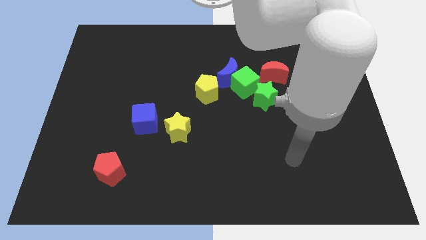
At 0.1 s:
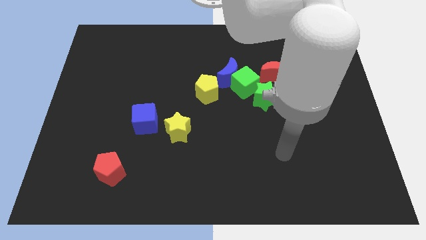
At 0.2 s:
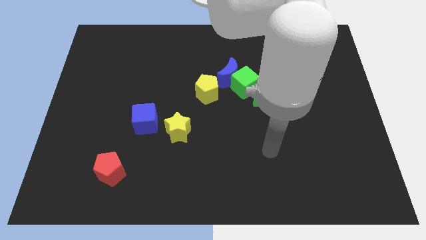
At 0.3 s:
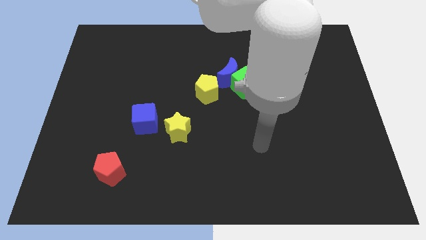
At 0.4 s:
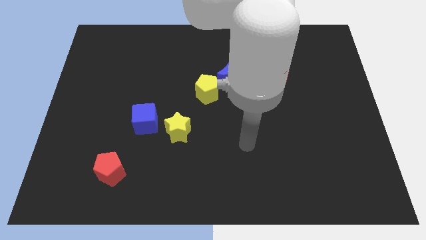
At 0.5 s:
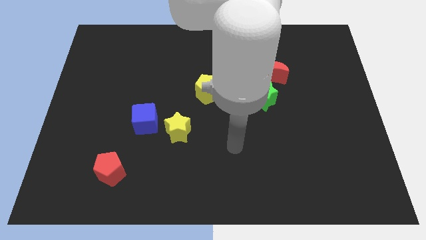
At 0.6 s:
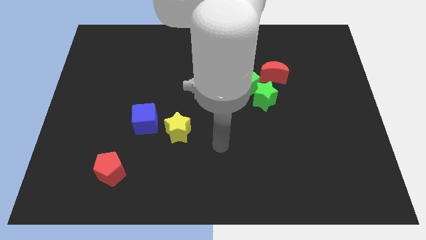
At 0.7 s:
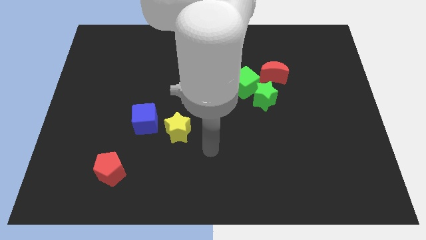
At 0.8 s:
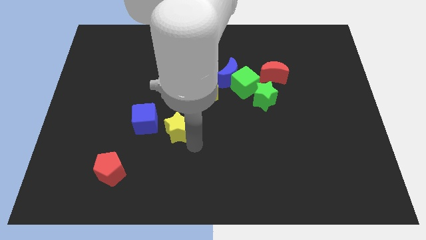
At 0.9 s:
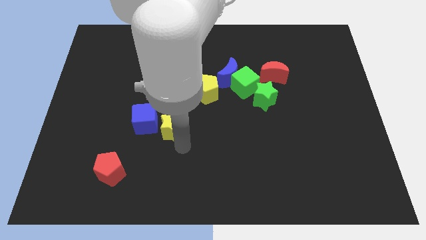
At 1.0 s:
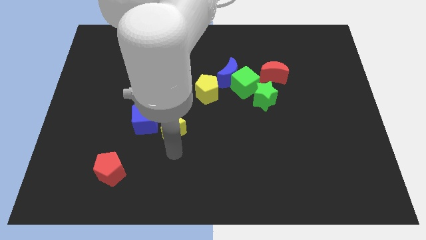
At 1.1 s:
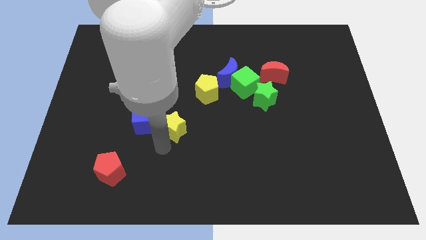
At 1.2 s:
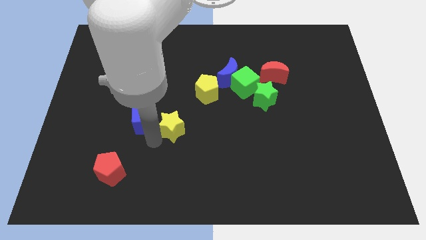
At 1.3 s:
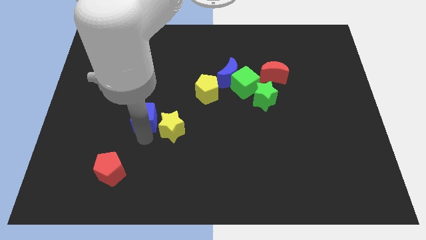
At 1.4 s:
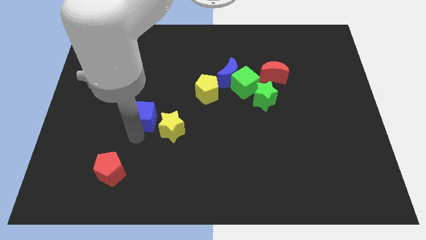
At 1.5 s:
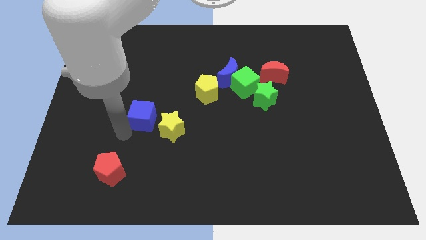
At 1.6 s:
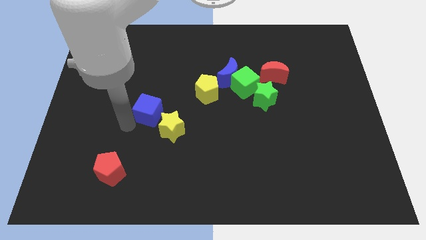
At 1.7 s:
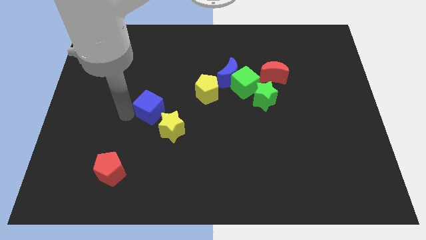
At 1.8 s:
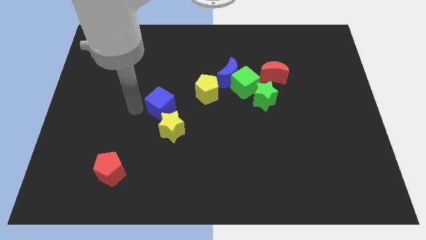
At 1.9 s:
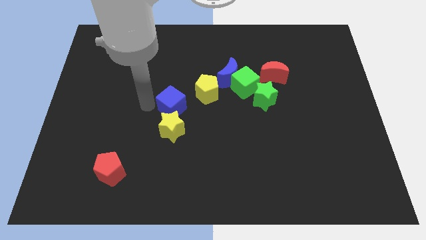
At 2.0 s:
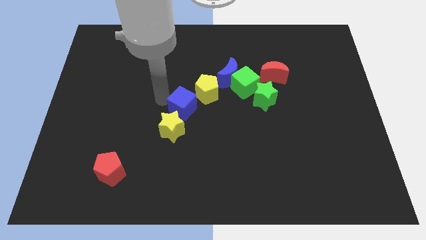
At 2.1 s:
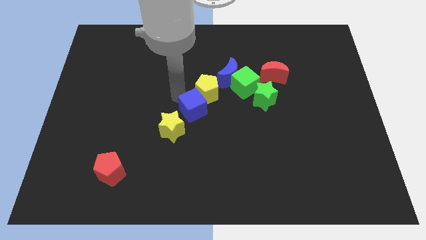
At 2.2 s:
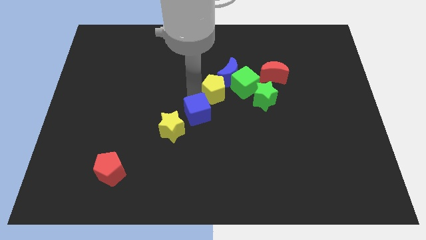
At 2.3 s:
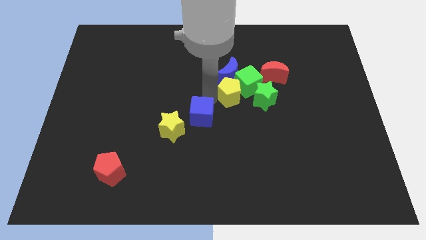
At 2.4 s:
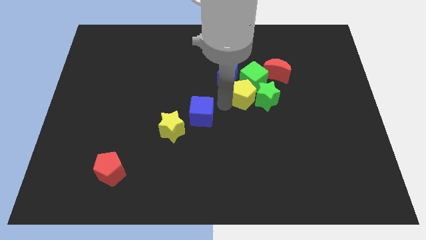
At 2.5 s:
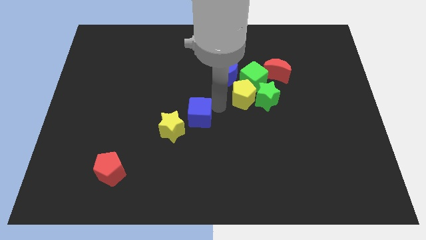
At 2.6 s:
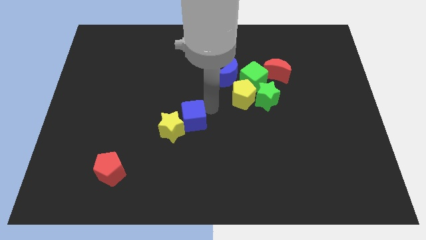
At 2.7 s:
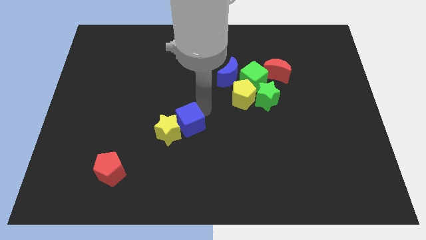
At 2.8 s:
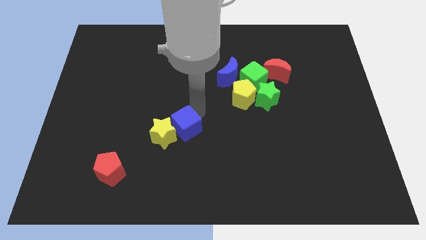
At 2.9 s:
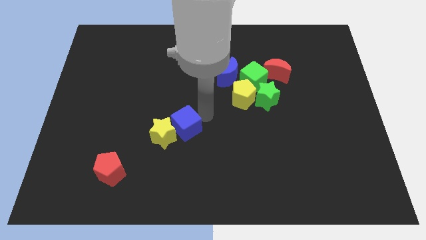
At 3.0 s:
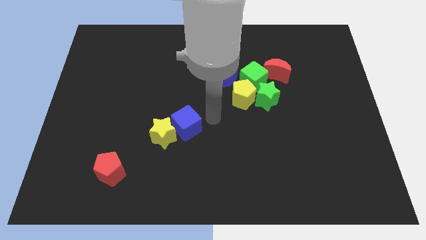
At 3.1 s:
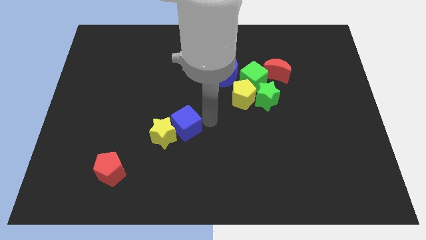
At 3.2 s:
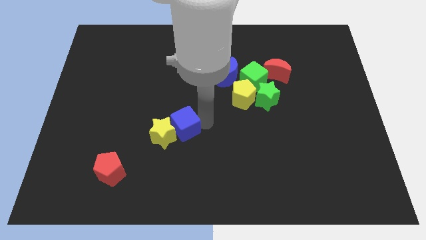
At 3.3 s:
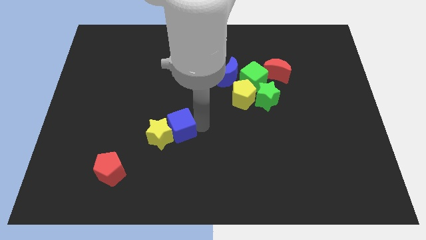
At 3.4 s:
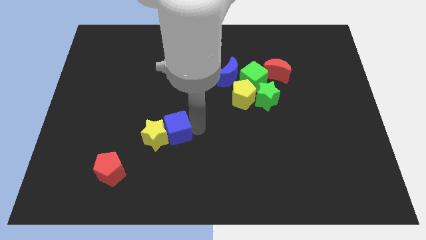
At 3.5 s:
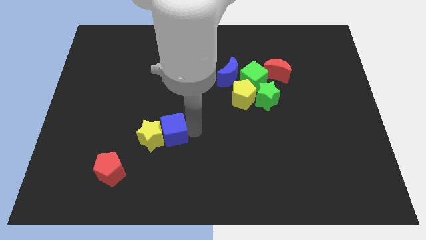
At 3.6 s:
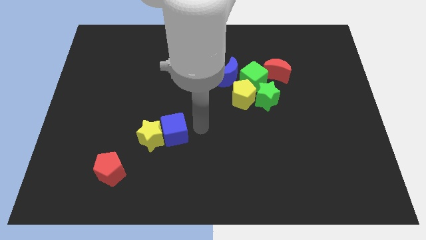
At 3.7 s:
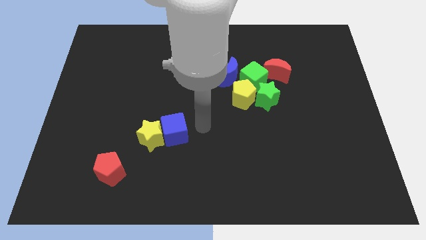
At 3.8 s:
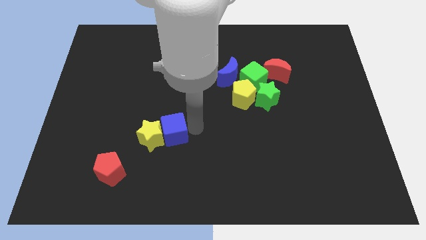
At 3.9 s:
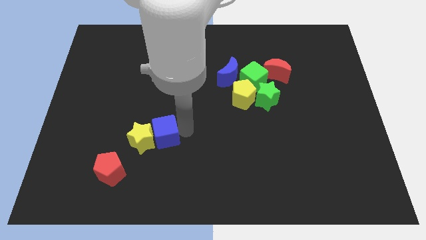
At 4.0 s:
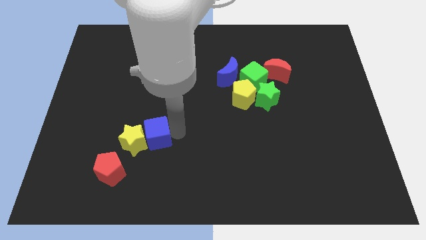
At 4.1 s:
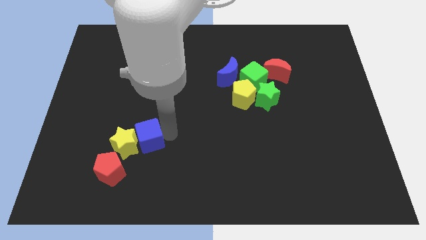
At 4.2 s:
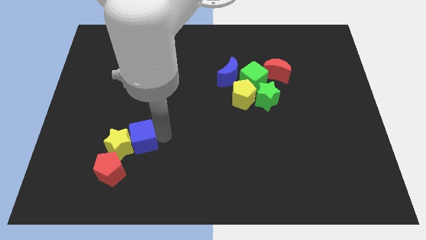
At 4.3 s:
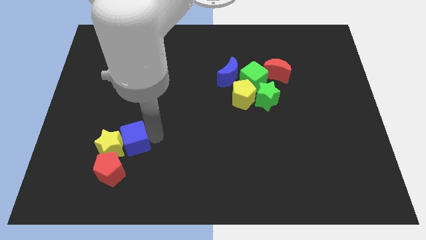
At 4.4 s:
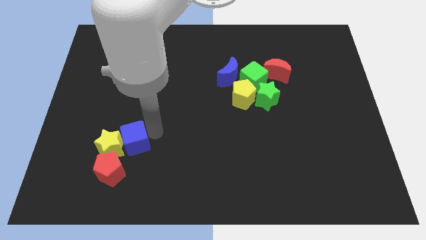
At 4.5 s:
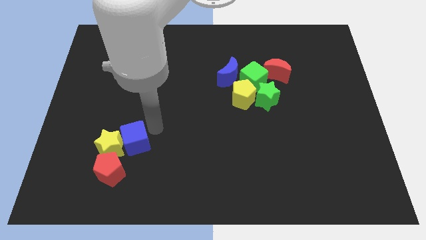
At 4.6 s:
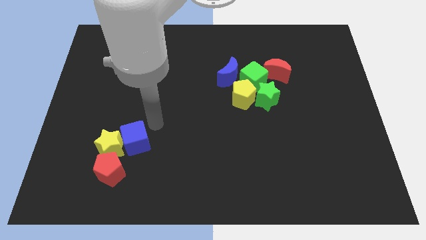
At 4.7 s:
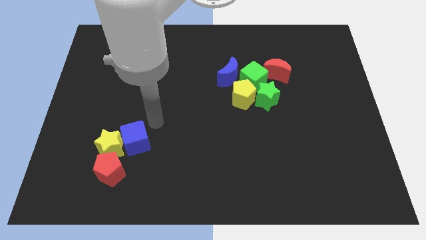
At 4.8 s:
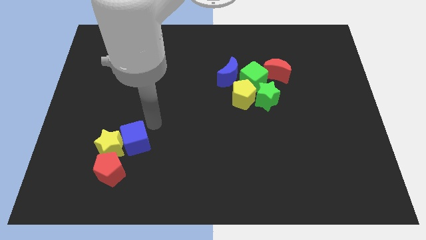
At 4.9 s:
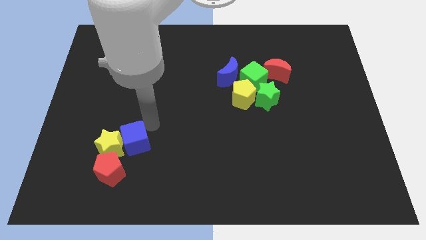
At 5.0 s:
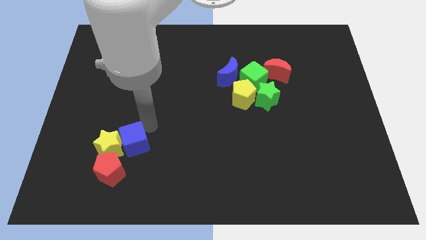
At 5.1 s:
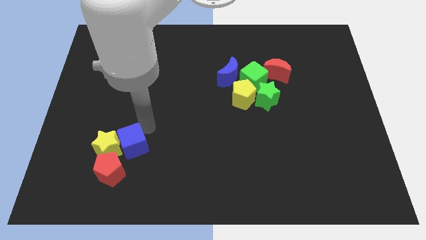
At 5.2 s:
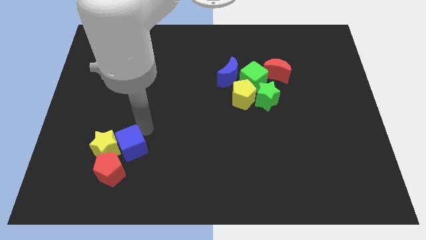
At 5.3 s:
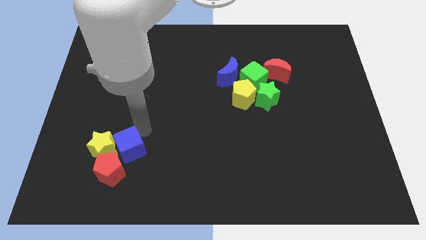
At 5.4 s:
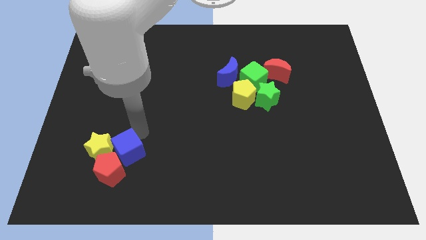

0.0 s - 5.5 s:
slide the blue cube towards the red pentagon

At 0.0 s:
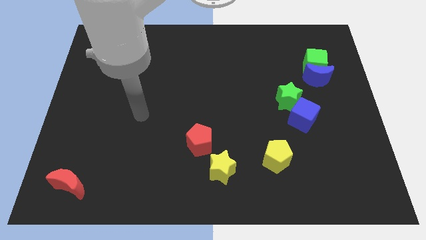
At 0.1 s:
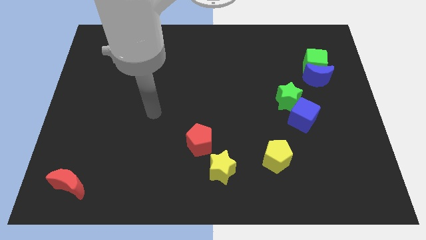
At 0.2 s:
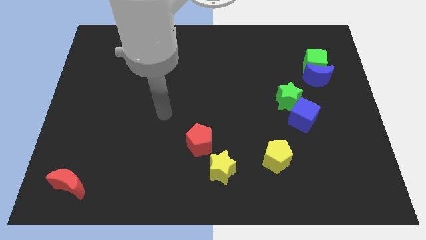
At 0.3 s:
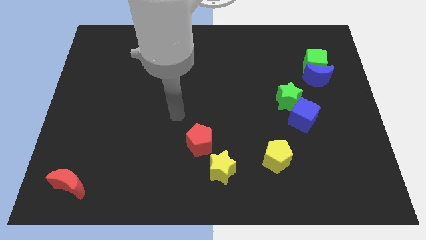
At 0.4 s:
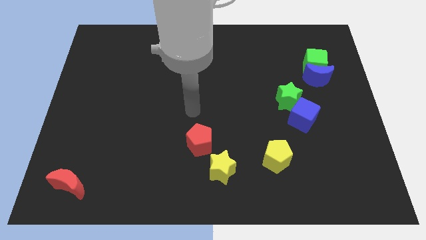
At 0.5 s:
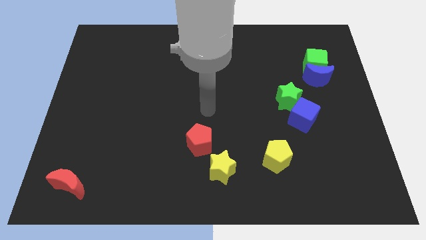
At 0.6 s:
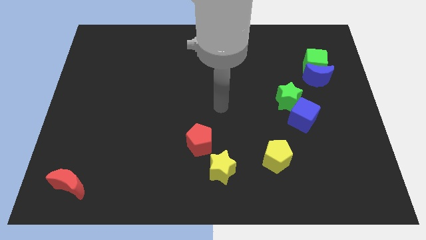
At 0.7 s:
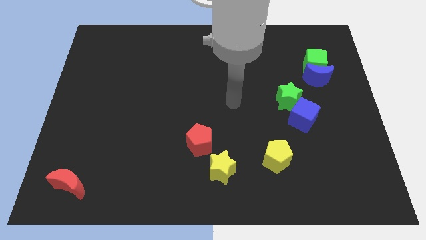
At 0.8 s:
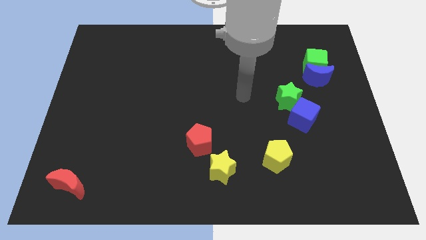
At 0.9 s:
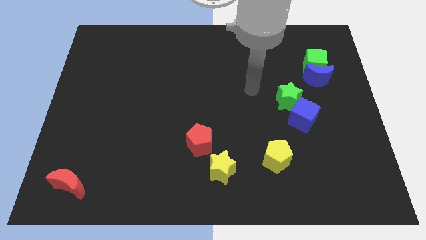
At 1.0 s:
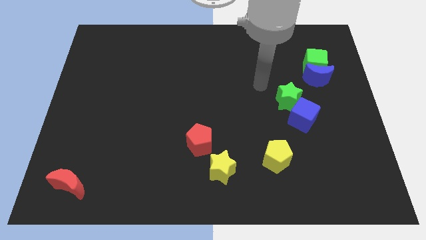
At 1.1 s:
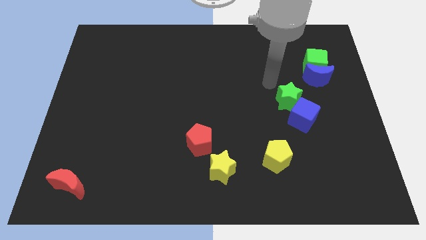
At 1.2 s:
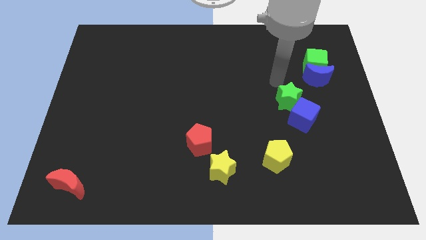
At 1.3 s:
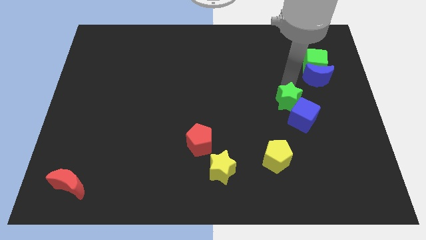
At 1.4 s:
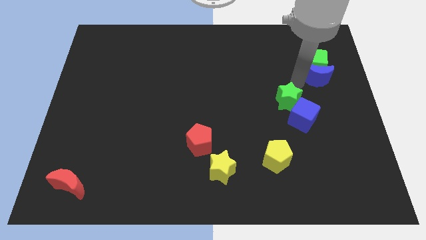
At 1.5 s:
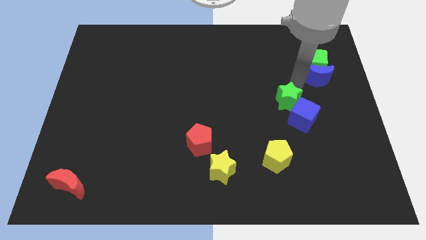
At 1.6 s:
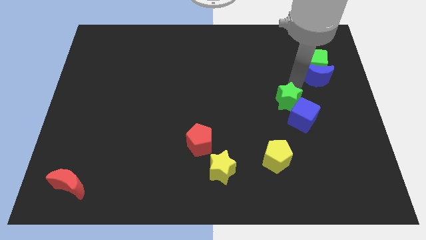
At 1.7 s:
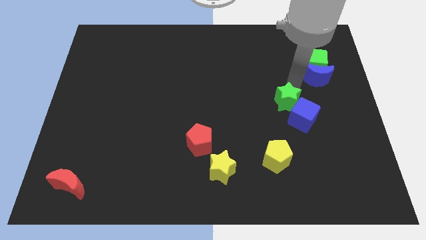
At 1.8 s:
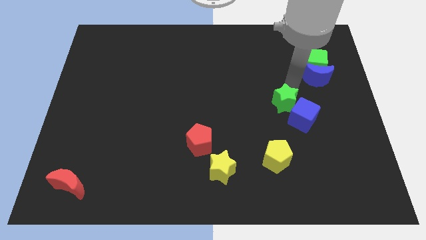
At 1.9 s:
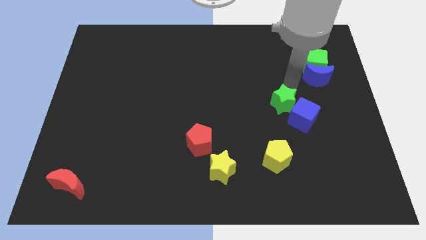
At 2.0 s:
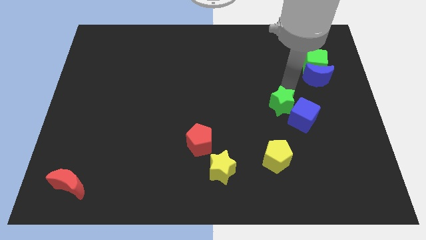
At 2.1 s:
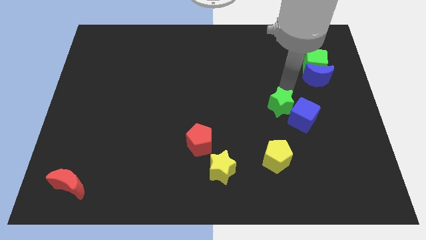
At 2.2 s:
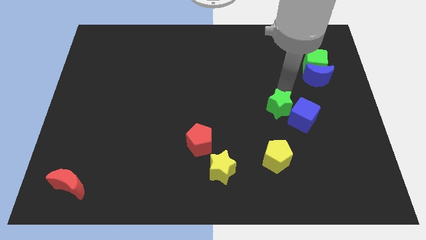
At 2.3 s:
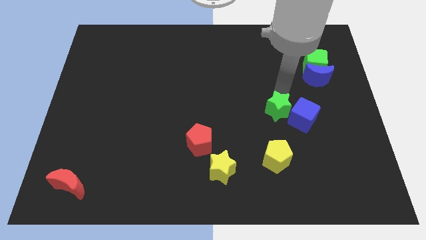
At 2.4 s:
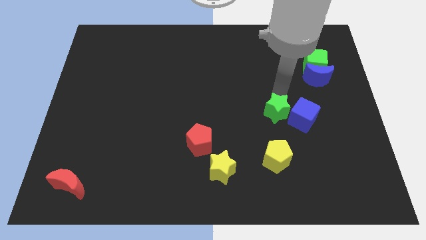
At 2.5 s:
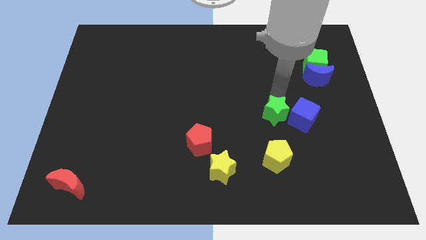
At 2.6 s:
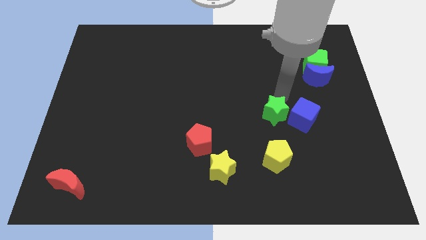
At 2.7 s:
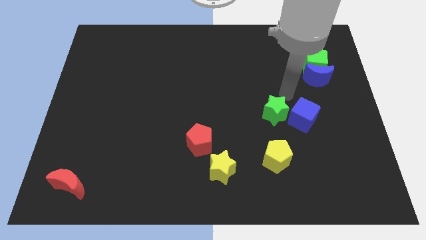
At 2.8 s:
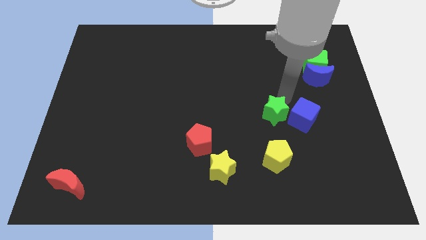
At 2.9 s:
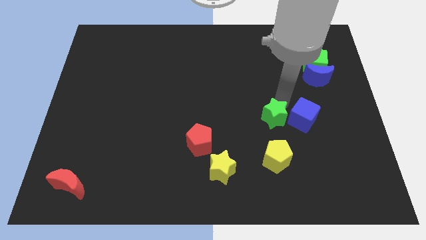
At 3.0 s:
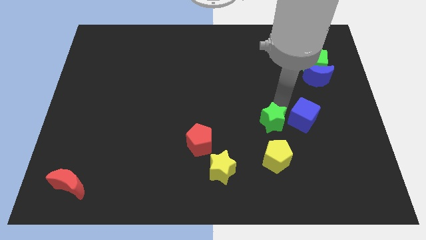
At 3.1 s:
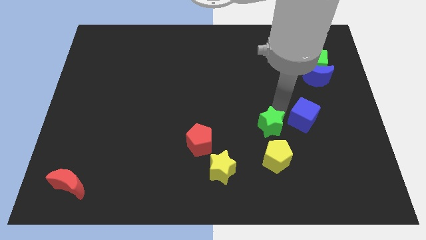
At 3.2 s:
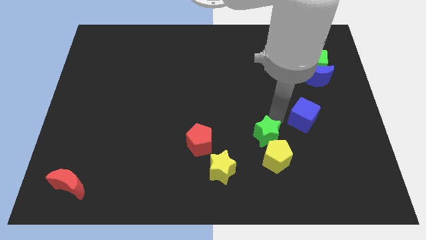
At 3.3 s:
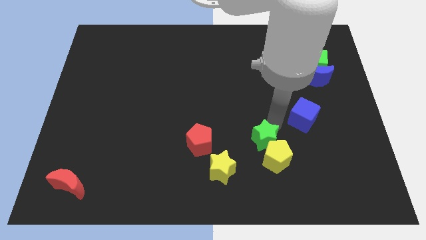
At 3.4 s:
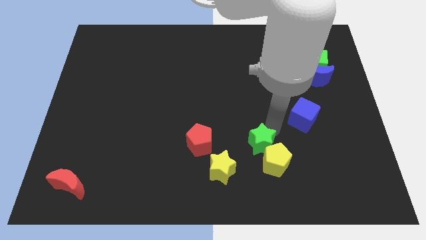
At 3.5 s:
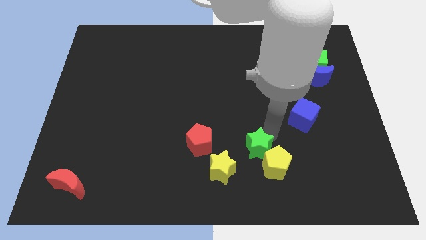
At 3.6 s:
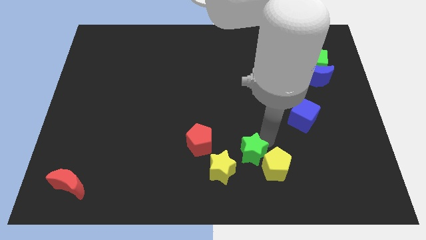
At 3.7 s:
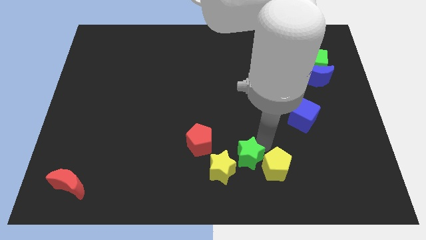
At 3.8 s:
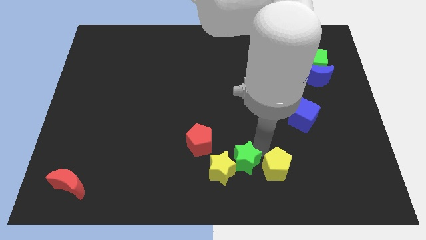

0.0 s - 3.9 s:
push the green star to the yellow star
